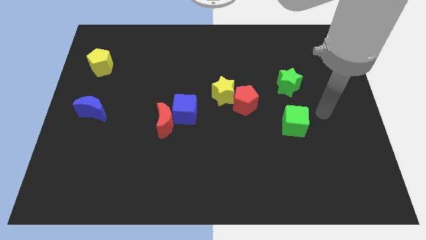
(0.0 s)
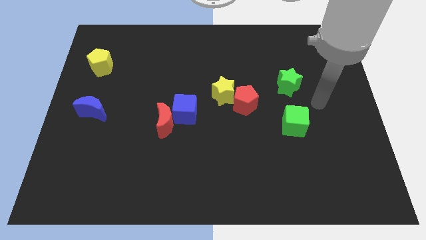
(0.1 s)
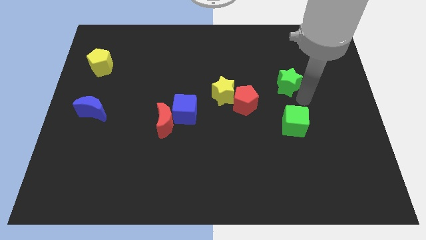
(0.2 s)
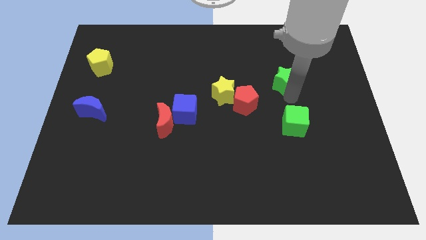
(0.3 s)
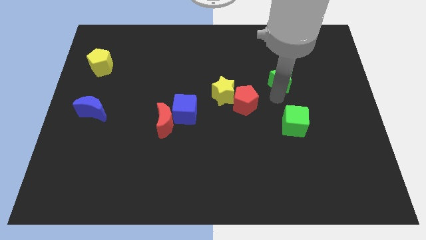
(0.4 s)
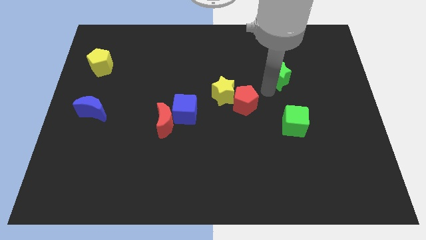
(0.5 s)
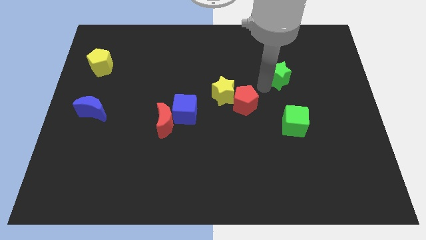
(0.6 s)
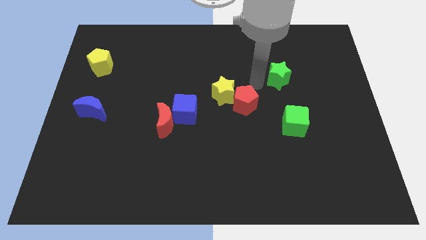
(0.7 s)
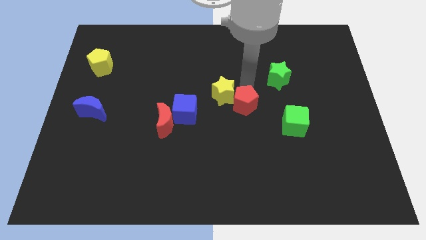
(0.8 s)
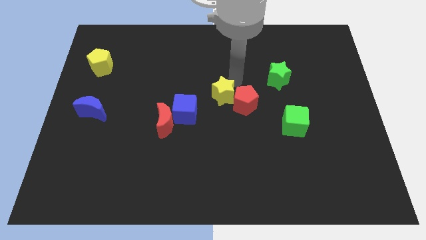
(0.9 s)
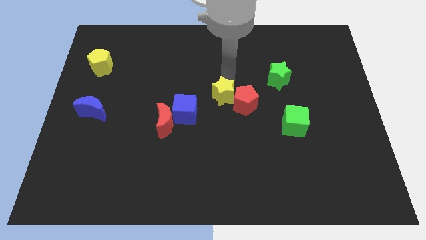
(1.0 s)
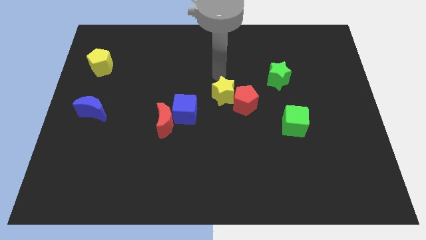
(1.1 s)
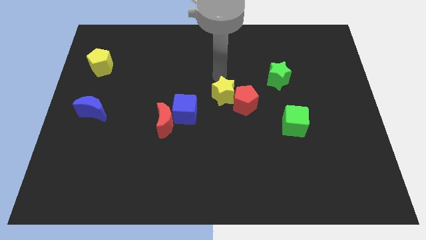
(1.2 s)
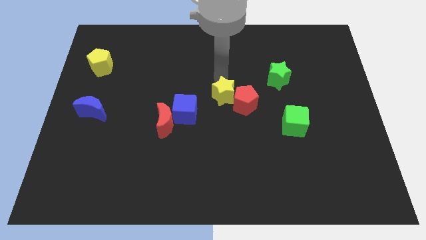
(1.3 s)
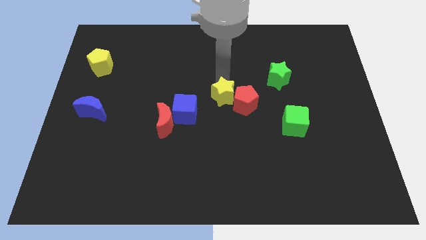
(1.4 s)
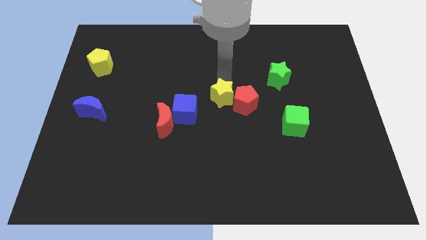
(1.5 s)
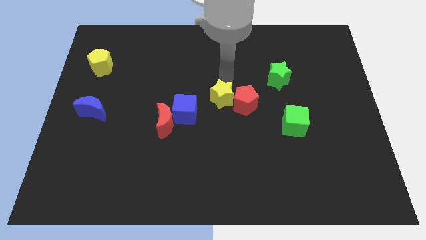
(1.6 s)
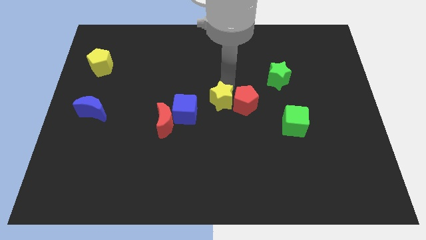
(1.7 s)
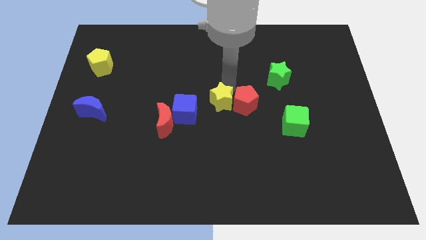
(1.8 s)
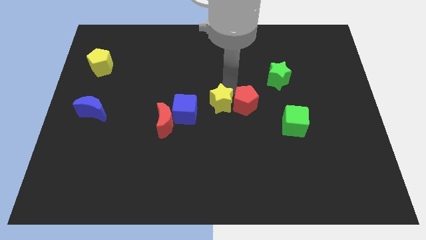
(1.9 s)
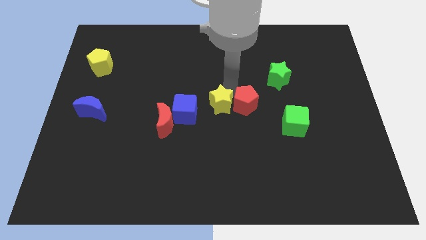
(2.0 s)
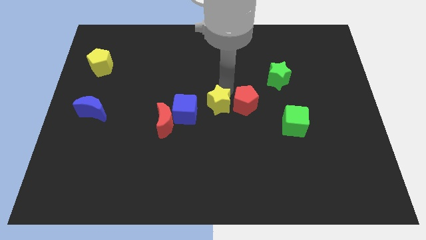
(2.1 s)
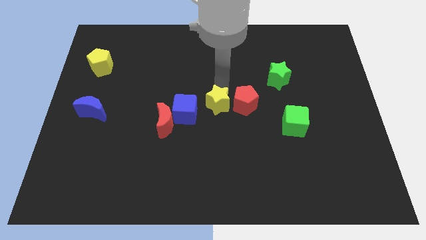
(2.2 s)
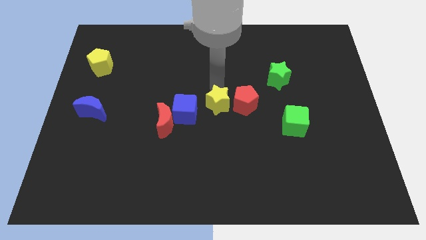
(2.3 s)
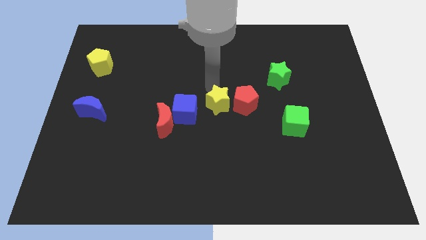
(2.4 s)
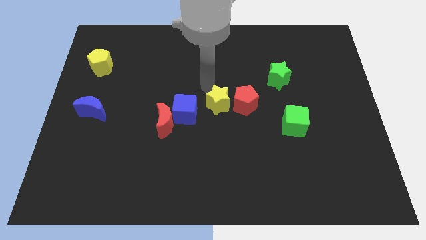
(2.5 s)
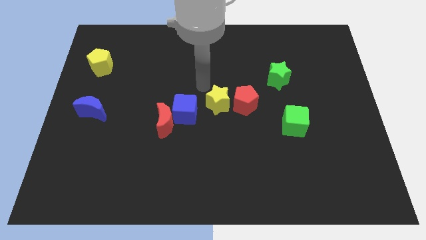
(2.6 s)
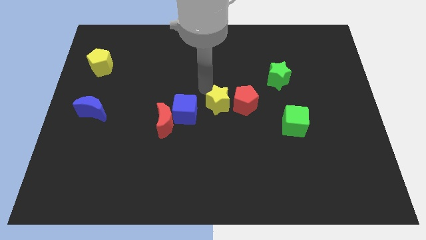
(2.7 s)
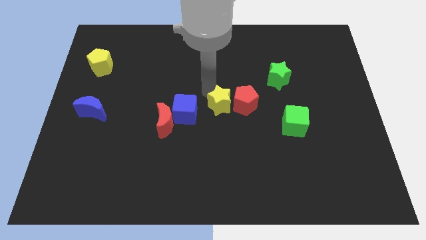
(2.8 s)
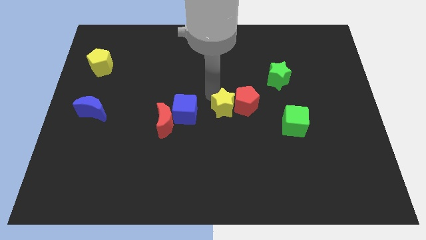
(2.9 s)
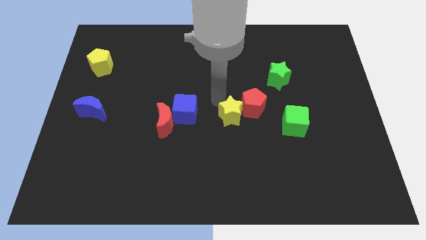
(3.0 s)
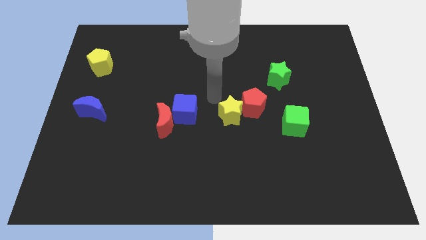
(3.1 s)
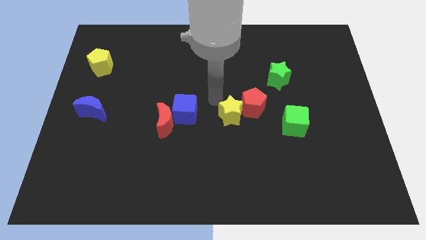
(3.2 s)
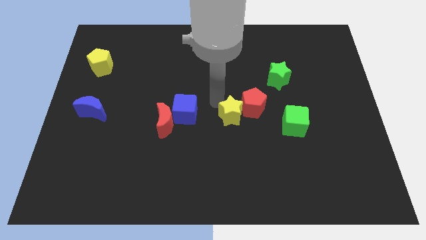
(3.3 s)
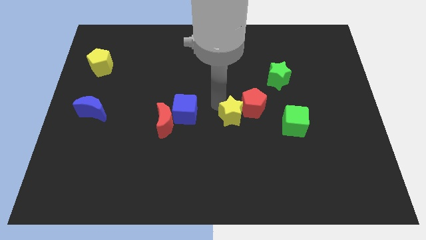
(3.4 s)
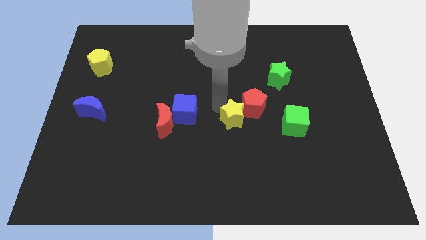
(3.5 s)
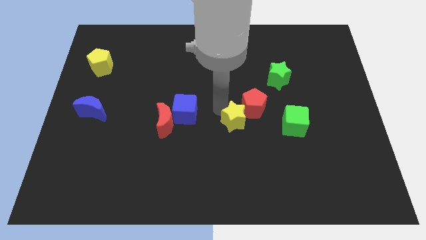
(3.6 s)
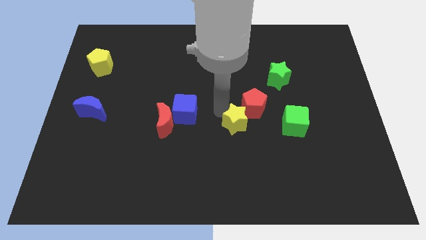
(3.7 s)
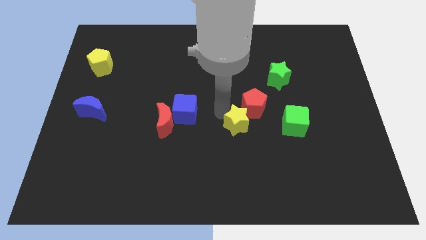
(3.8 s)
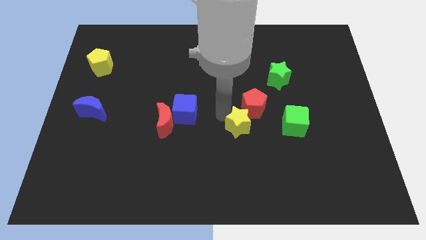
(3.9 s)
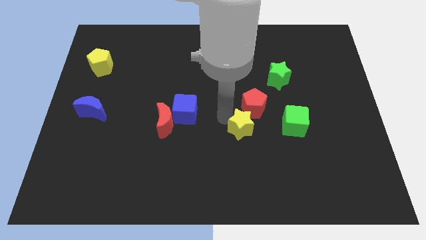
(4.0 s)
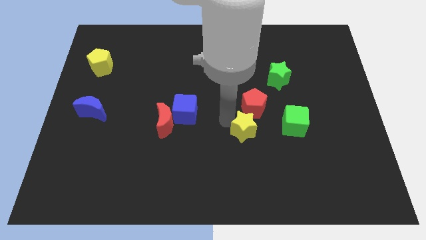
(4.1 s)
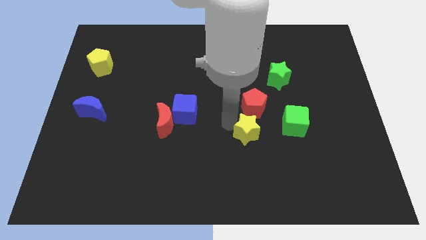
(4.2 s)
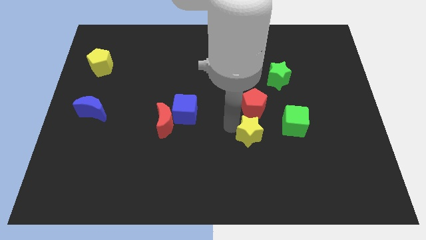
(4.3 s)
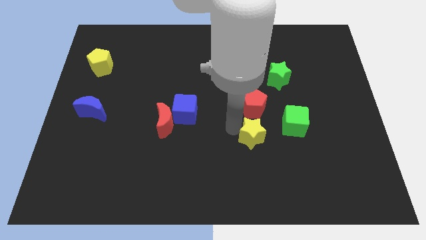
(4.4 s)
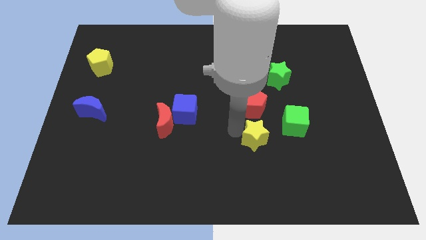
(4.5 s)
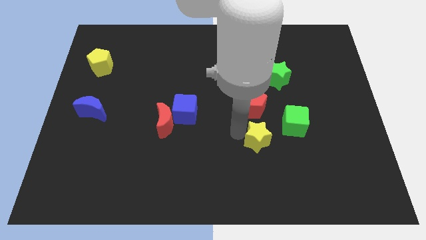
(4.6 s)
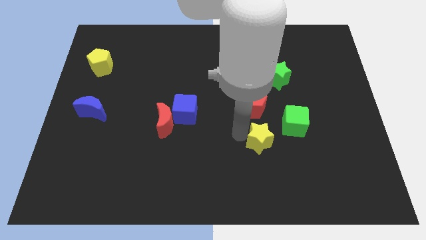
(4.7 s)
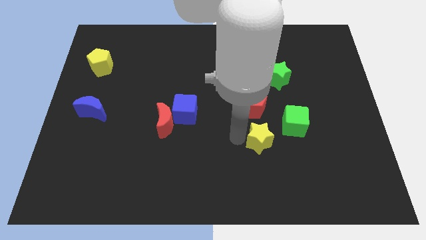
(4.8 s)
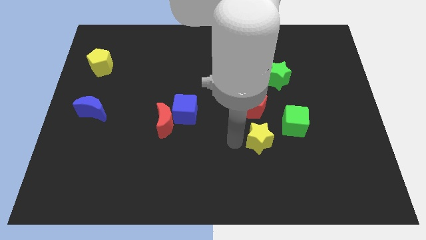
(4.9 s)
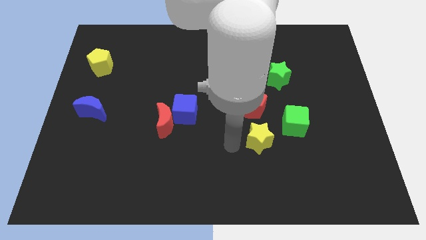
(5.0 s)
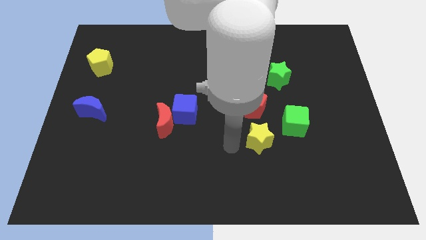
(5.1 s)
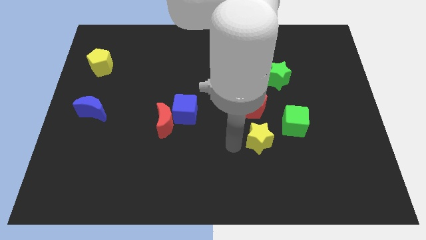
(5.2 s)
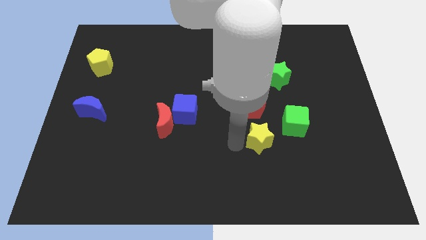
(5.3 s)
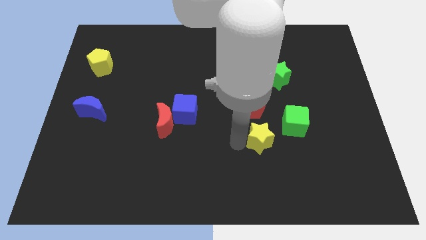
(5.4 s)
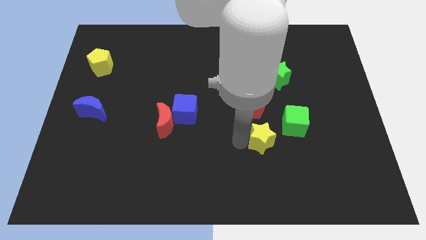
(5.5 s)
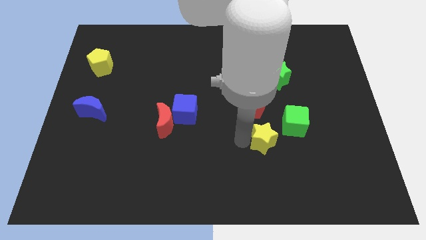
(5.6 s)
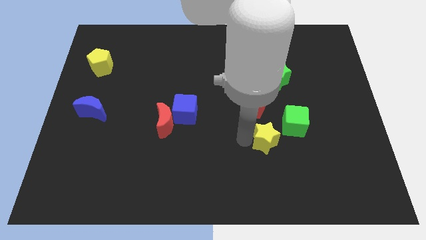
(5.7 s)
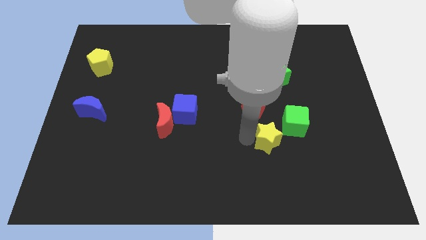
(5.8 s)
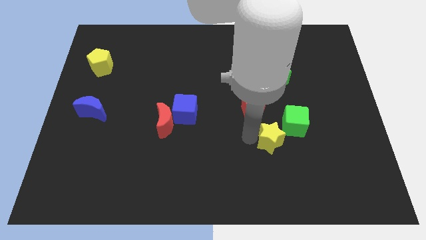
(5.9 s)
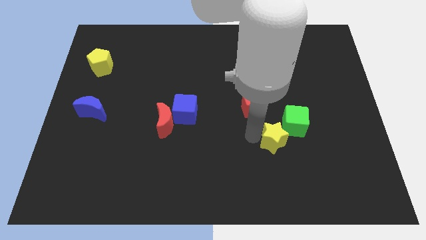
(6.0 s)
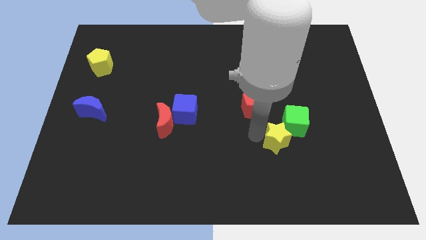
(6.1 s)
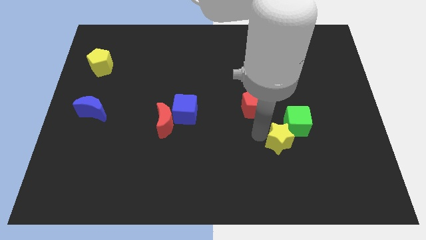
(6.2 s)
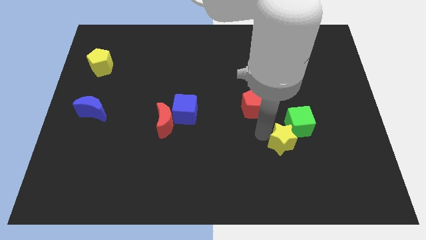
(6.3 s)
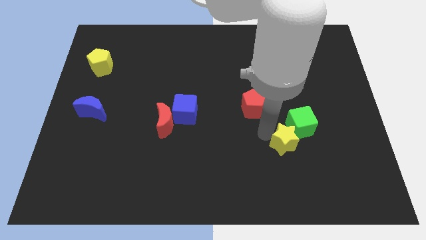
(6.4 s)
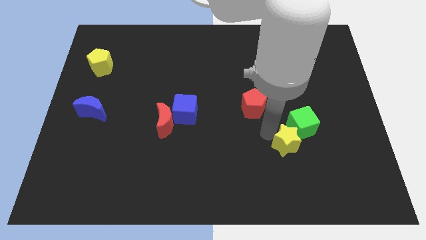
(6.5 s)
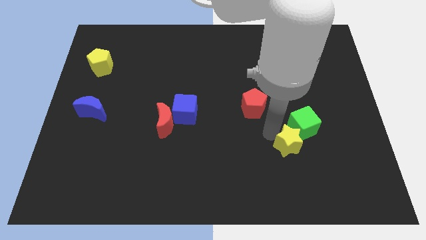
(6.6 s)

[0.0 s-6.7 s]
slide the yellow star downwards and to the right diagonally

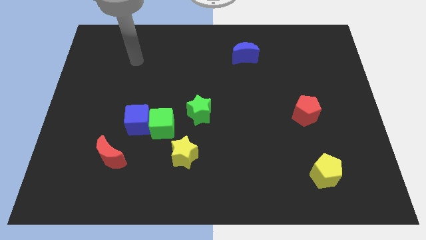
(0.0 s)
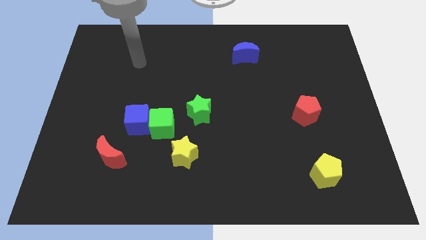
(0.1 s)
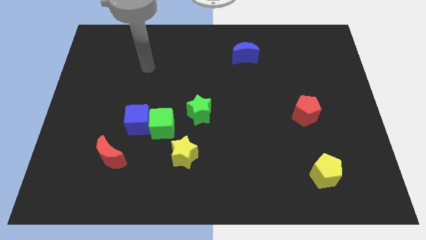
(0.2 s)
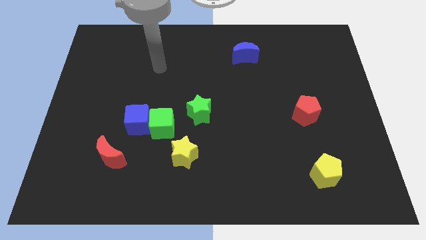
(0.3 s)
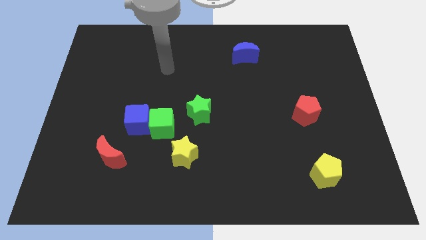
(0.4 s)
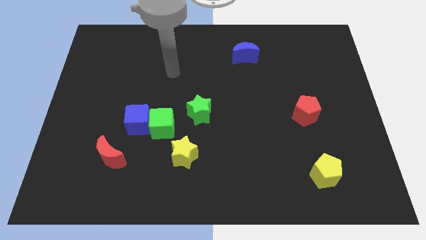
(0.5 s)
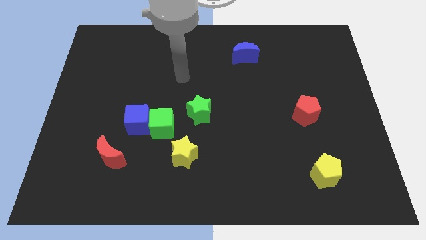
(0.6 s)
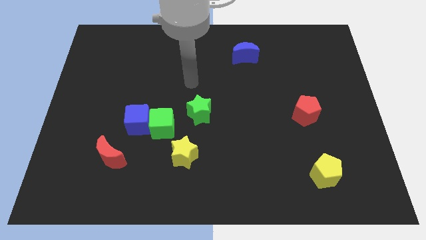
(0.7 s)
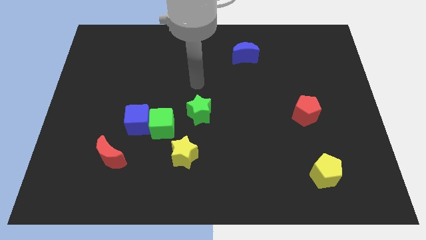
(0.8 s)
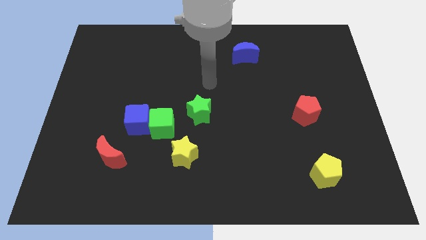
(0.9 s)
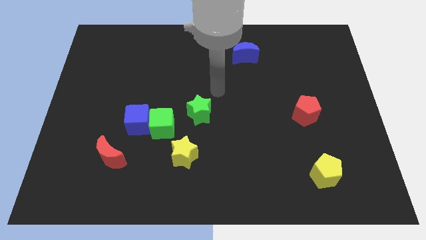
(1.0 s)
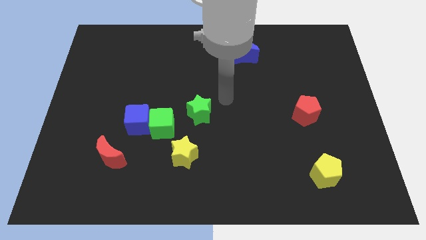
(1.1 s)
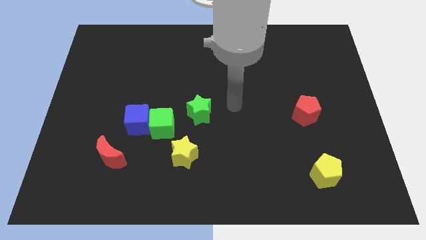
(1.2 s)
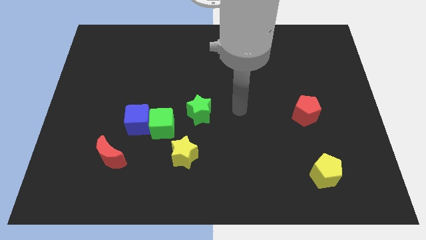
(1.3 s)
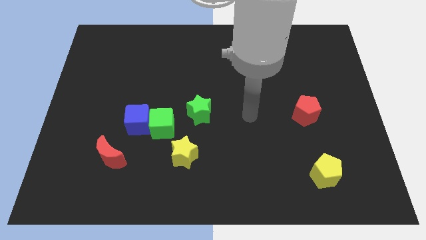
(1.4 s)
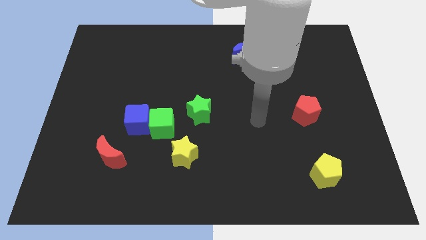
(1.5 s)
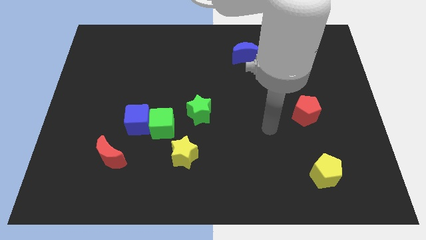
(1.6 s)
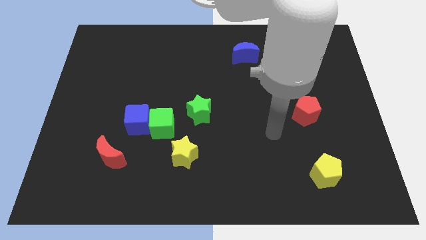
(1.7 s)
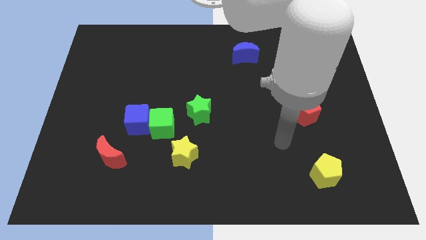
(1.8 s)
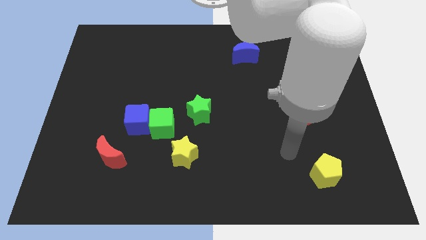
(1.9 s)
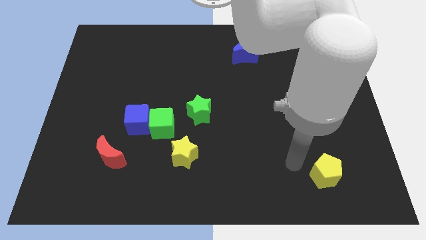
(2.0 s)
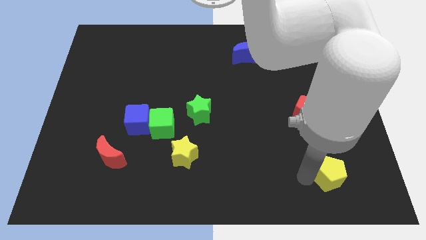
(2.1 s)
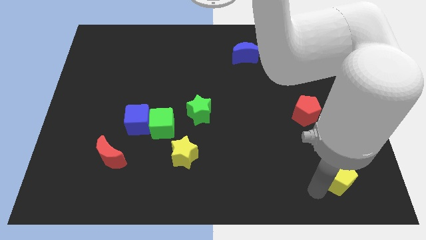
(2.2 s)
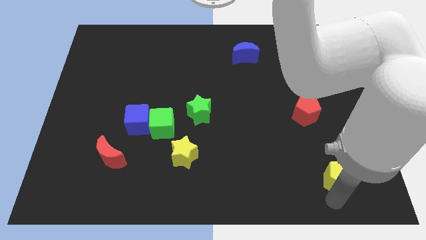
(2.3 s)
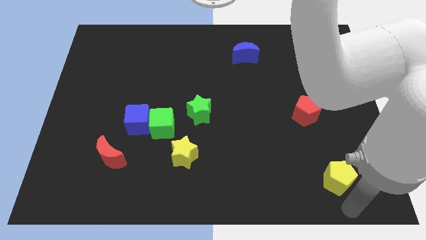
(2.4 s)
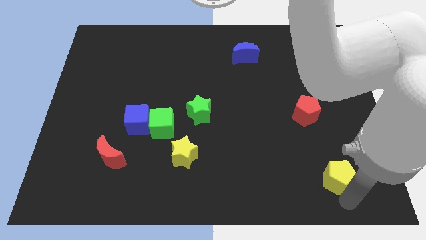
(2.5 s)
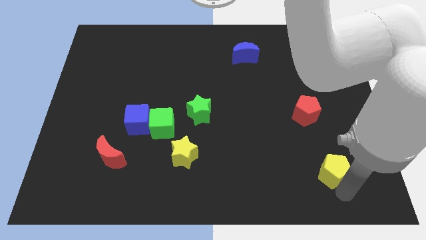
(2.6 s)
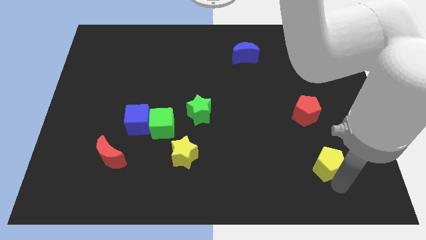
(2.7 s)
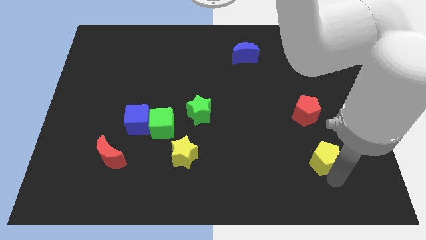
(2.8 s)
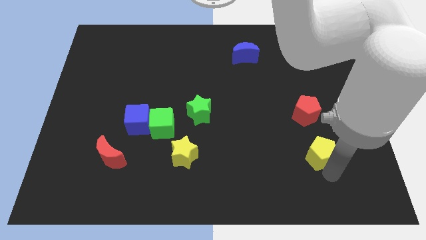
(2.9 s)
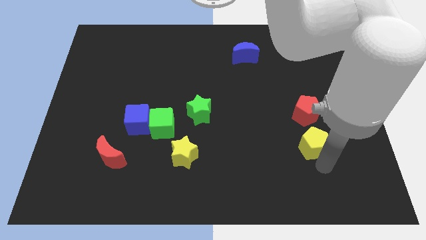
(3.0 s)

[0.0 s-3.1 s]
push the yellow pentagon somewhat upwards
